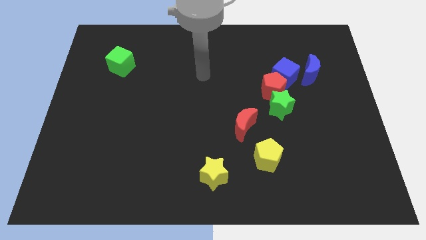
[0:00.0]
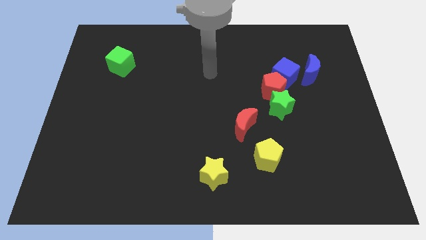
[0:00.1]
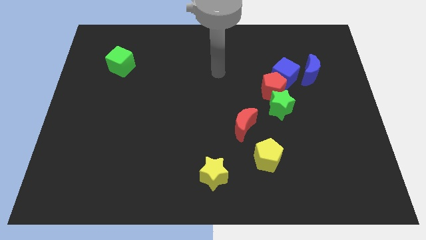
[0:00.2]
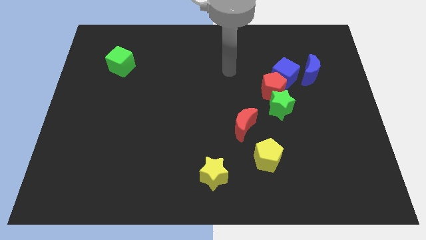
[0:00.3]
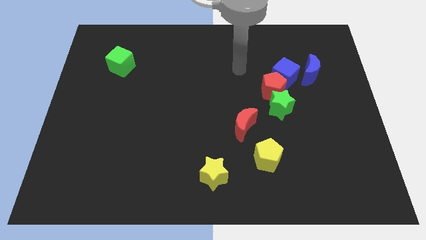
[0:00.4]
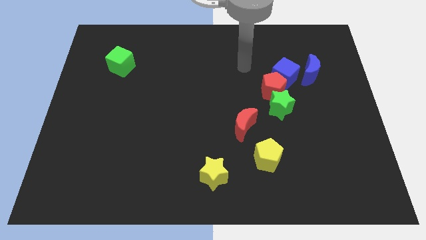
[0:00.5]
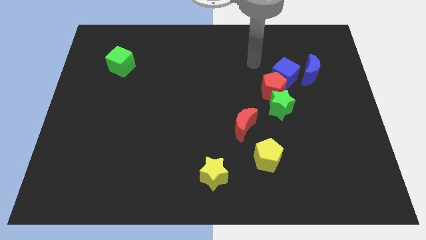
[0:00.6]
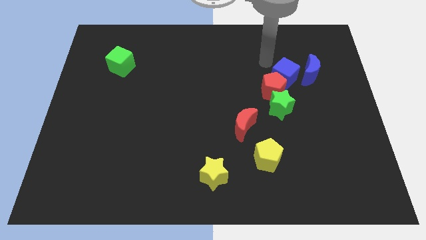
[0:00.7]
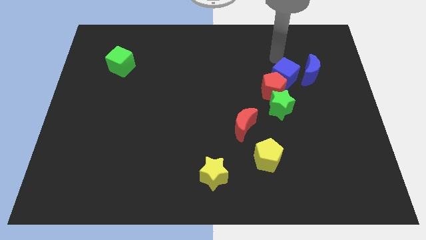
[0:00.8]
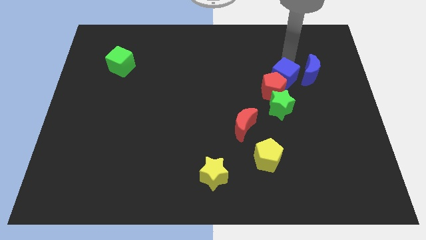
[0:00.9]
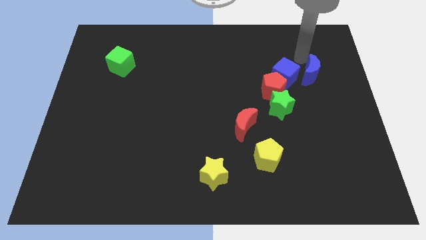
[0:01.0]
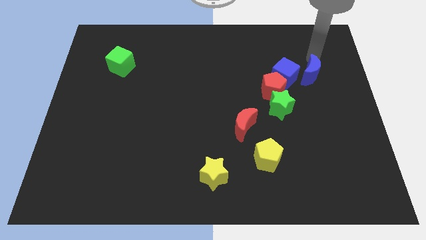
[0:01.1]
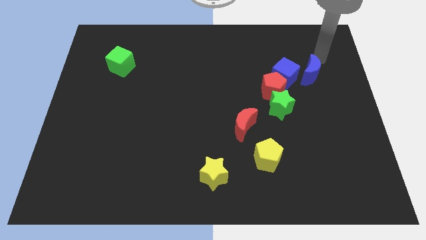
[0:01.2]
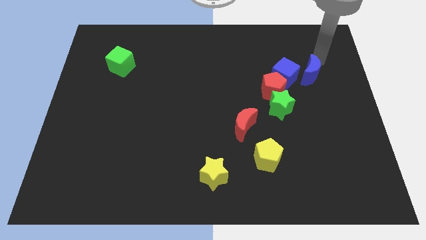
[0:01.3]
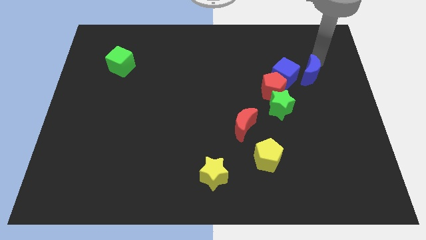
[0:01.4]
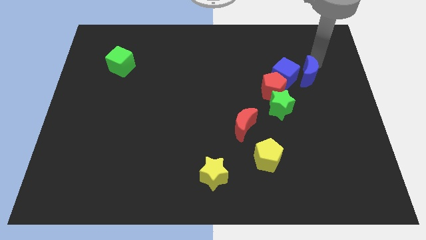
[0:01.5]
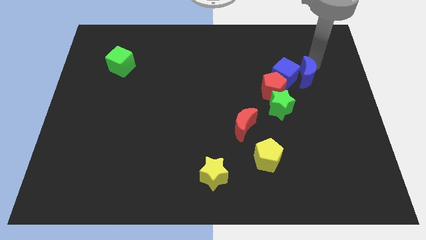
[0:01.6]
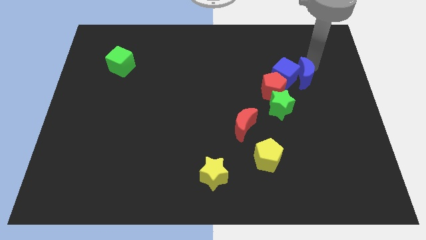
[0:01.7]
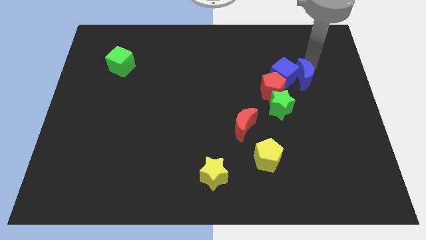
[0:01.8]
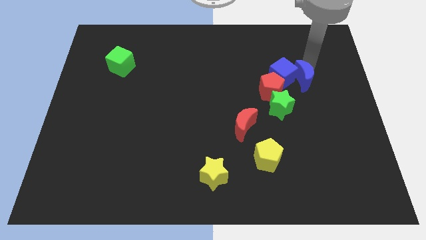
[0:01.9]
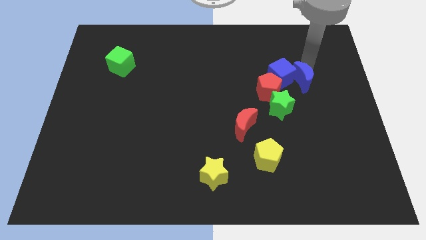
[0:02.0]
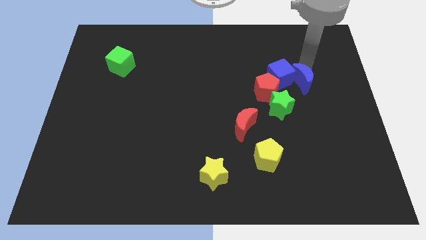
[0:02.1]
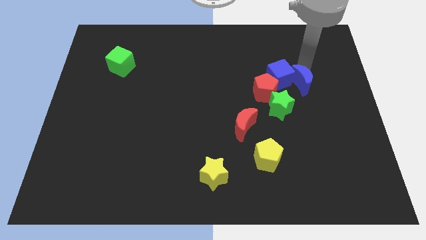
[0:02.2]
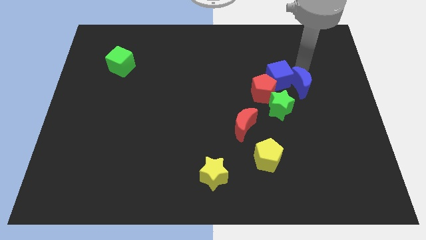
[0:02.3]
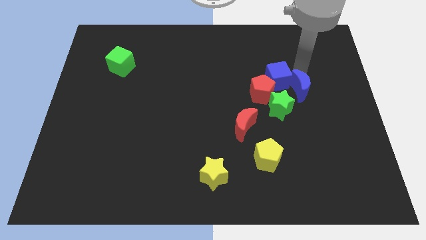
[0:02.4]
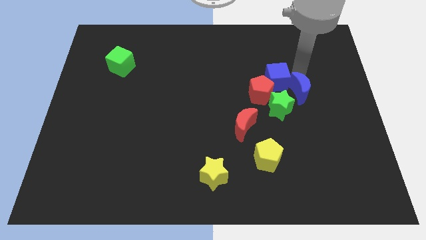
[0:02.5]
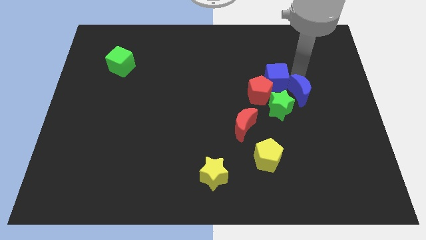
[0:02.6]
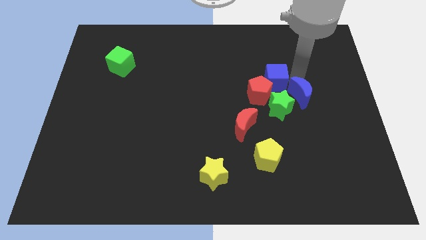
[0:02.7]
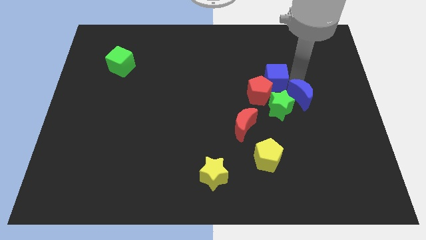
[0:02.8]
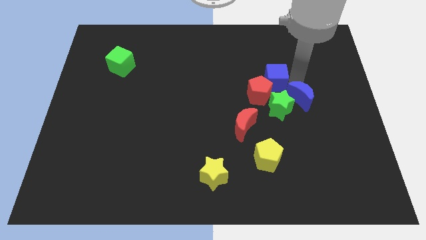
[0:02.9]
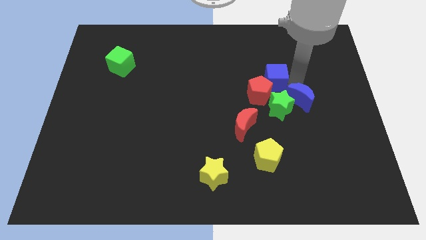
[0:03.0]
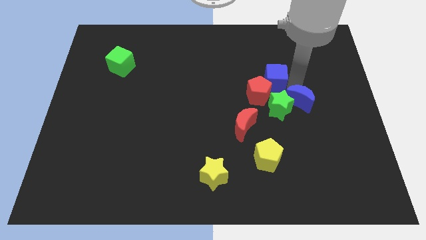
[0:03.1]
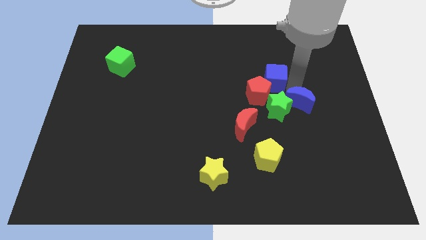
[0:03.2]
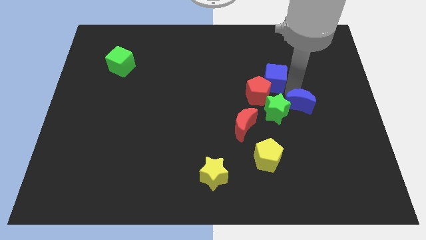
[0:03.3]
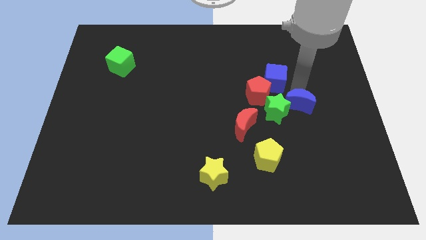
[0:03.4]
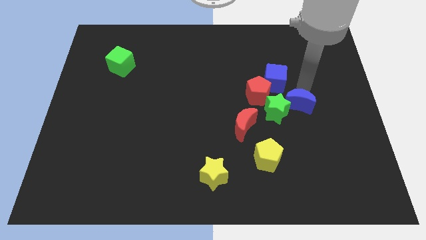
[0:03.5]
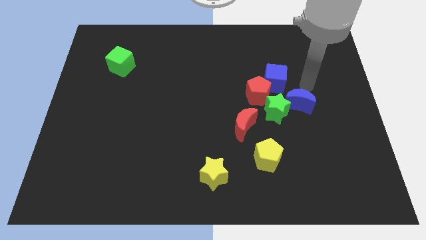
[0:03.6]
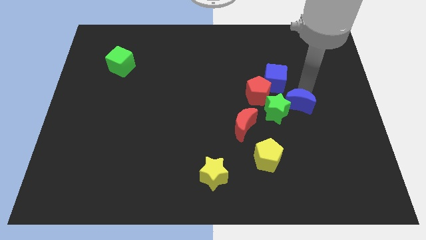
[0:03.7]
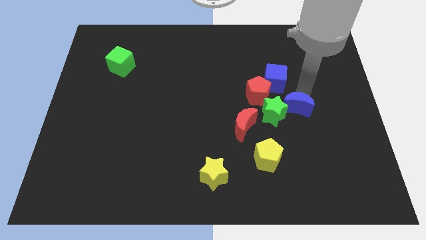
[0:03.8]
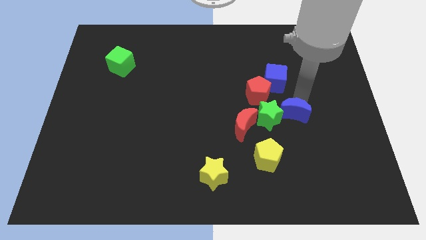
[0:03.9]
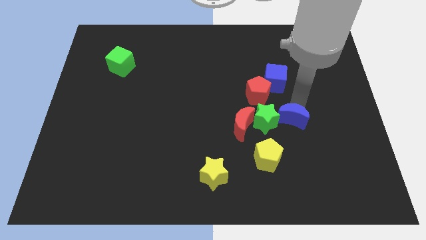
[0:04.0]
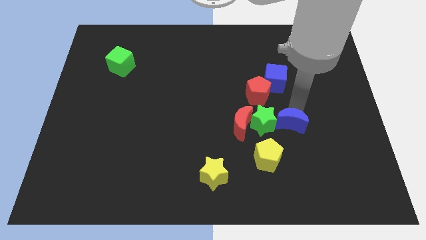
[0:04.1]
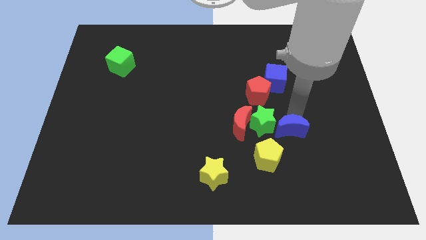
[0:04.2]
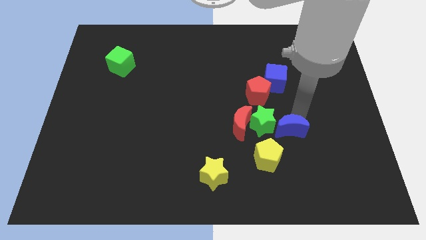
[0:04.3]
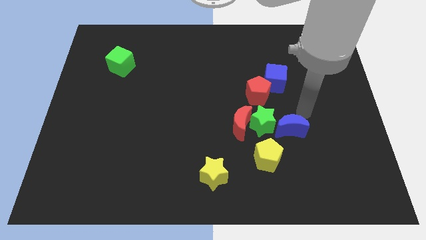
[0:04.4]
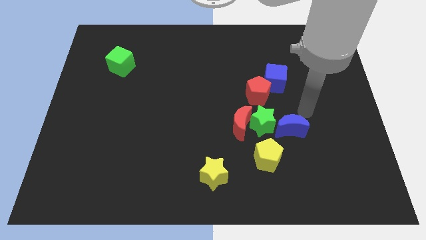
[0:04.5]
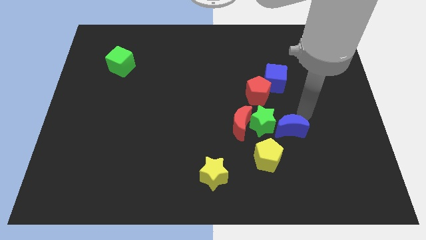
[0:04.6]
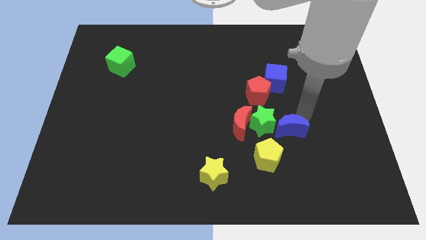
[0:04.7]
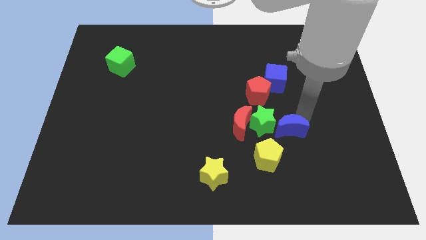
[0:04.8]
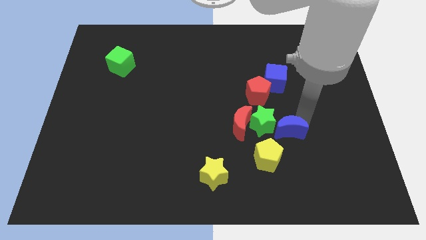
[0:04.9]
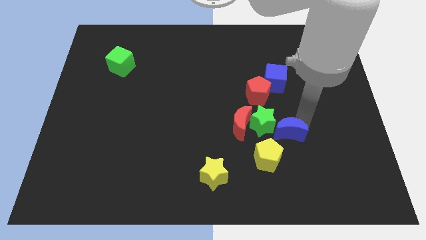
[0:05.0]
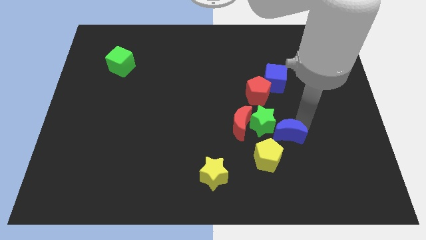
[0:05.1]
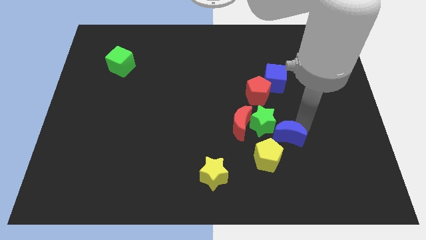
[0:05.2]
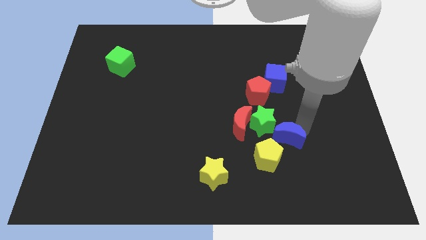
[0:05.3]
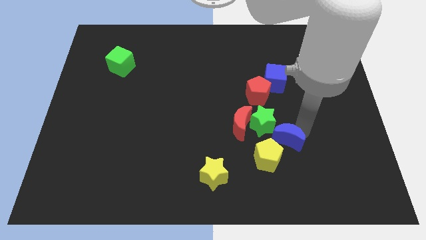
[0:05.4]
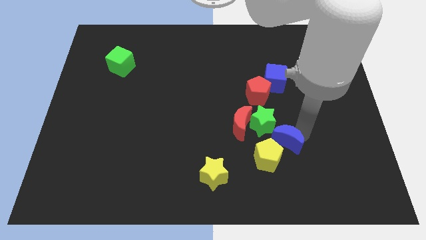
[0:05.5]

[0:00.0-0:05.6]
put the blue moon towards the yellow pentagon

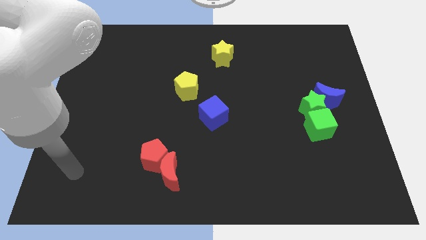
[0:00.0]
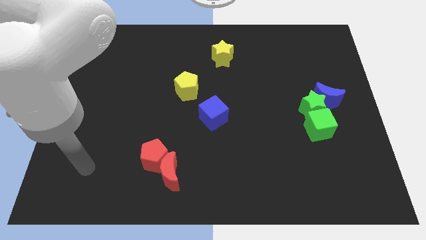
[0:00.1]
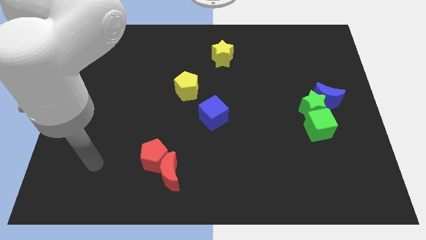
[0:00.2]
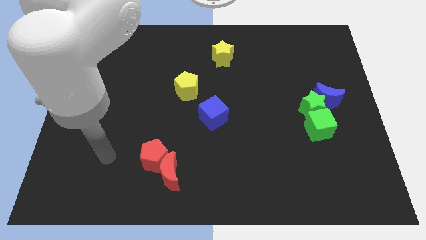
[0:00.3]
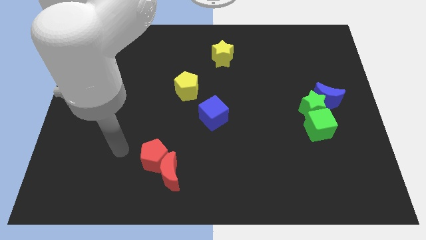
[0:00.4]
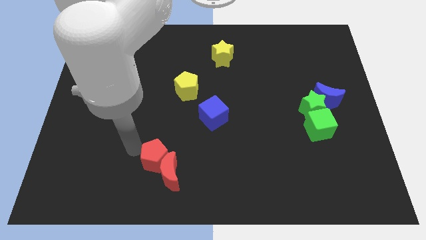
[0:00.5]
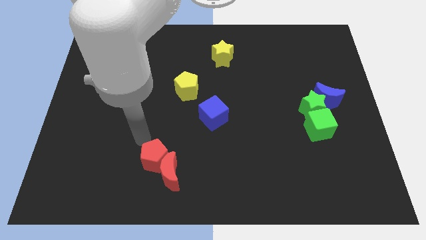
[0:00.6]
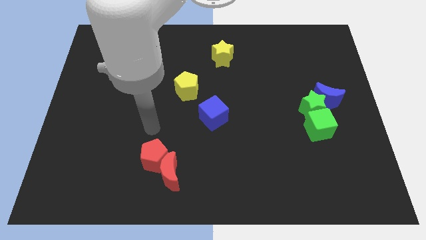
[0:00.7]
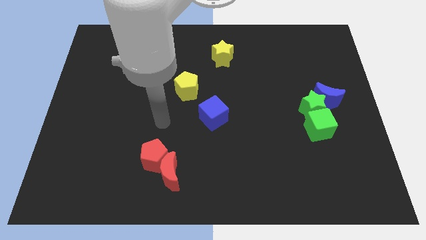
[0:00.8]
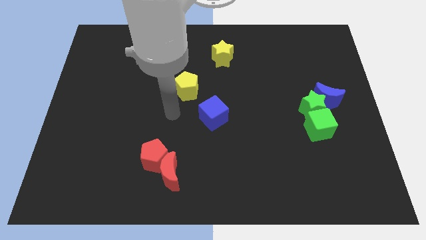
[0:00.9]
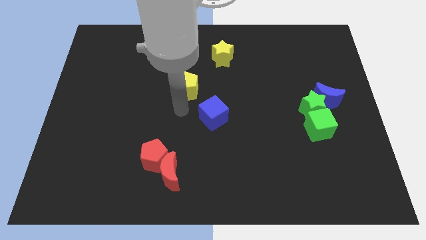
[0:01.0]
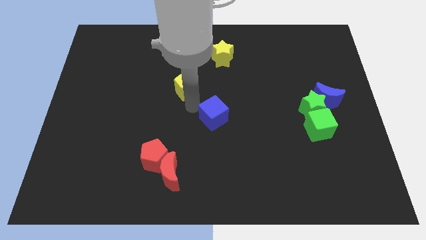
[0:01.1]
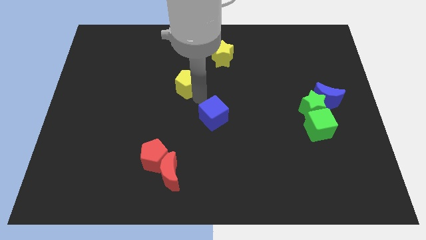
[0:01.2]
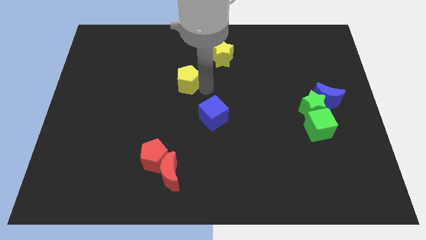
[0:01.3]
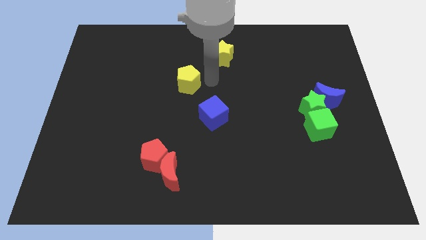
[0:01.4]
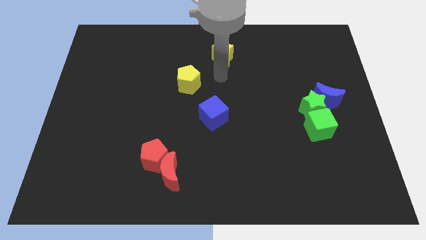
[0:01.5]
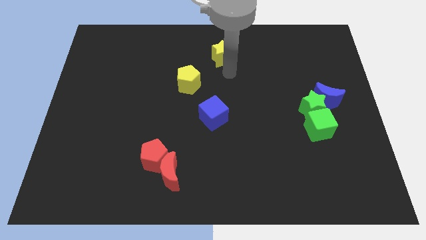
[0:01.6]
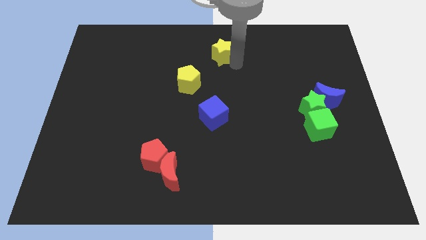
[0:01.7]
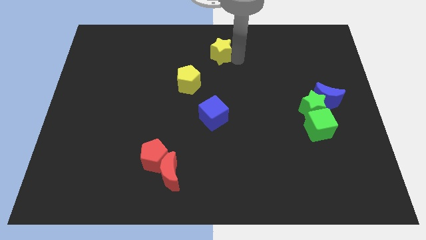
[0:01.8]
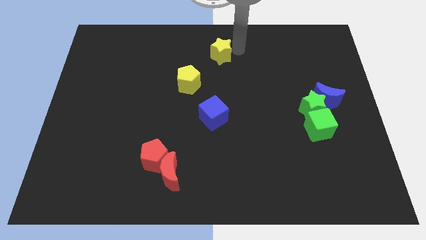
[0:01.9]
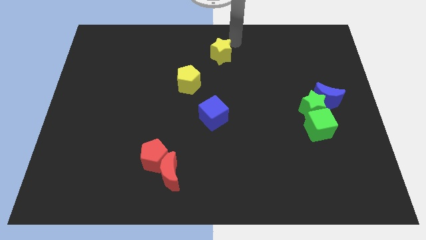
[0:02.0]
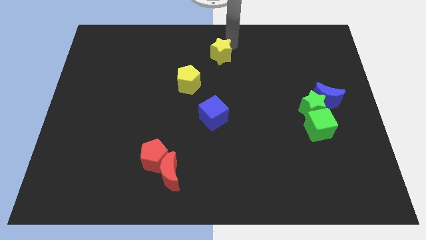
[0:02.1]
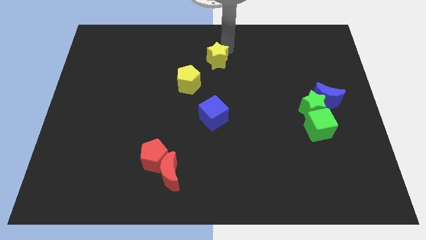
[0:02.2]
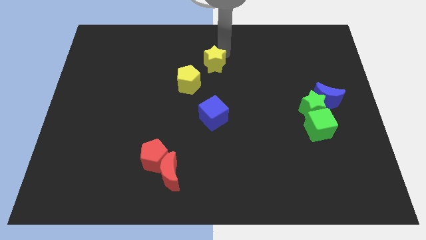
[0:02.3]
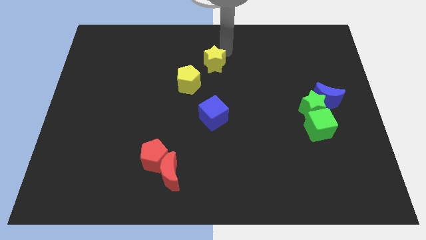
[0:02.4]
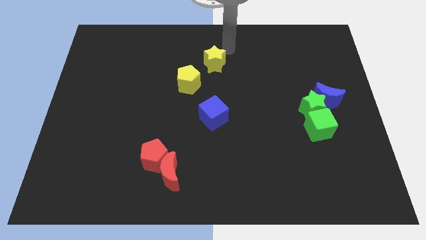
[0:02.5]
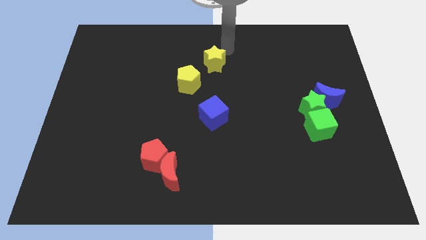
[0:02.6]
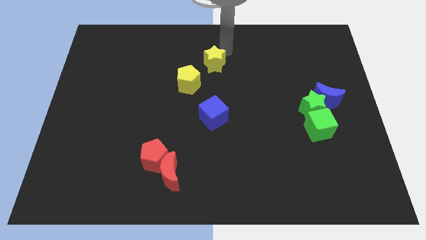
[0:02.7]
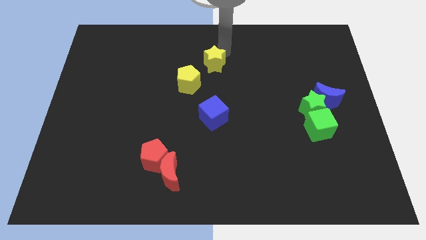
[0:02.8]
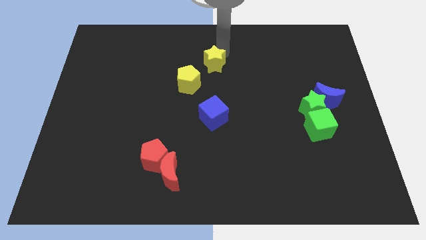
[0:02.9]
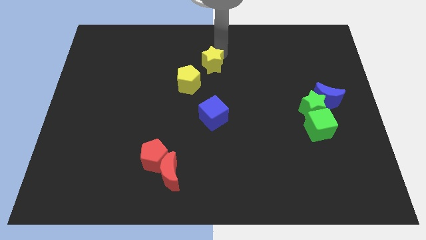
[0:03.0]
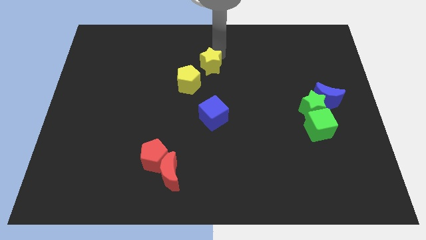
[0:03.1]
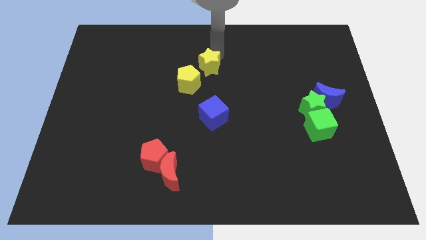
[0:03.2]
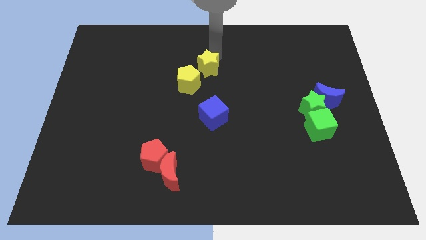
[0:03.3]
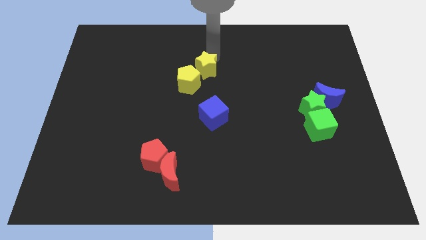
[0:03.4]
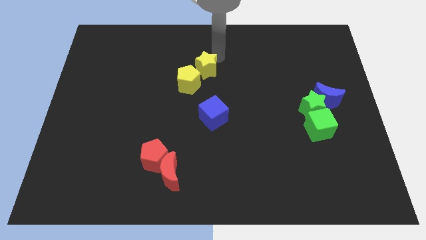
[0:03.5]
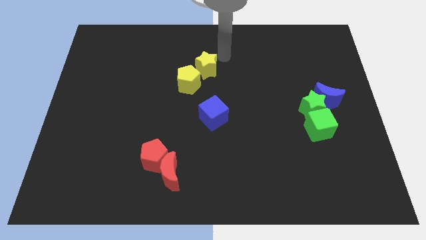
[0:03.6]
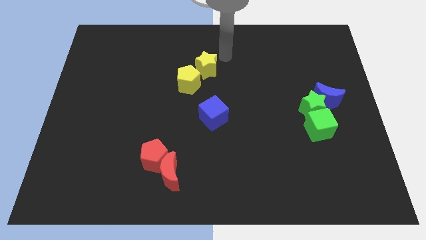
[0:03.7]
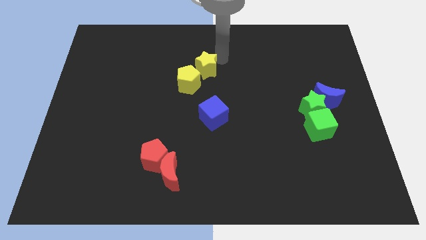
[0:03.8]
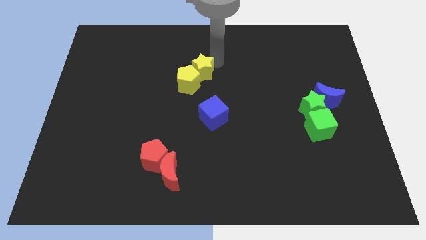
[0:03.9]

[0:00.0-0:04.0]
move the yellow star to the yellow pentagon
